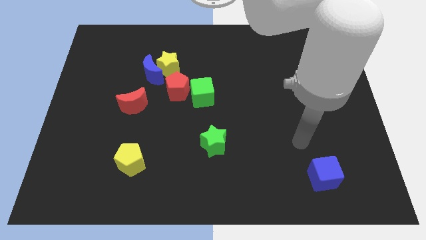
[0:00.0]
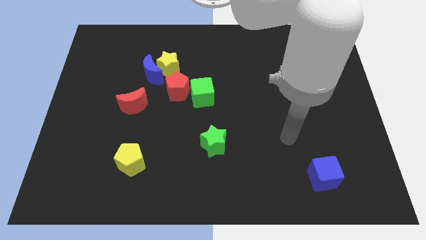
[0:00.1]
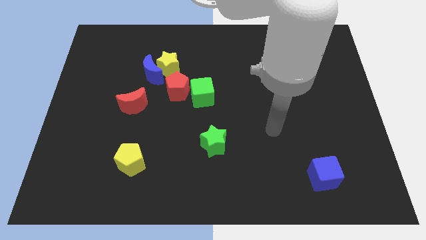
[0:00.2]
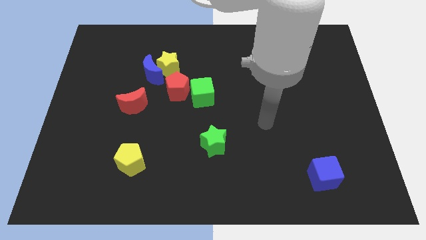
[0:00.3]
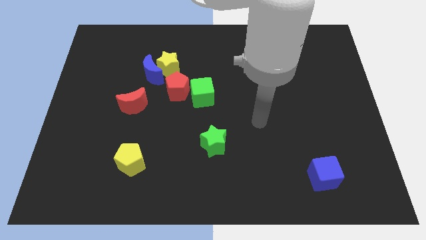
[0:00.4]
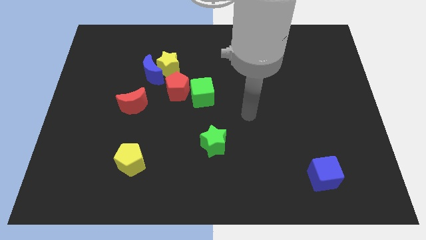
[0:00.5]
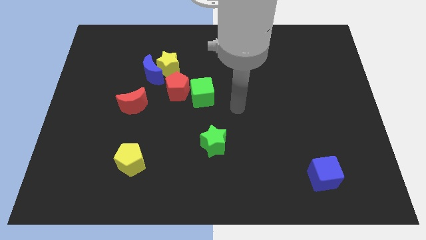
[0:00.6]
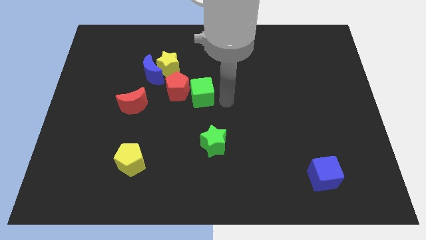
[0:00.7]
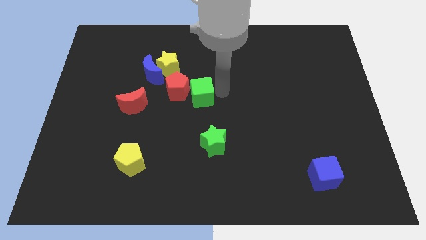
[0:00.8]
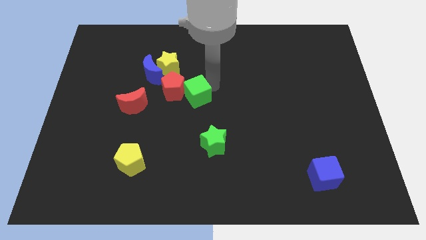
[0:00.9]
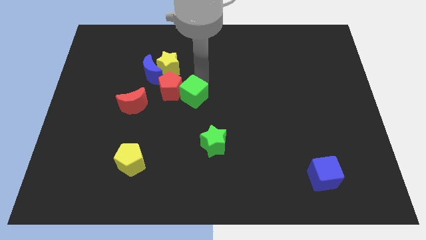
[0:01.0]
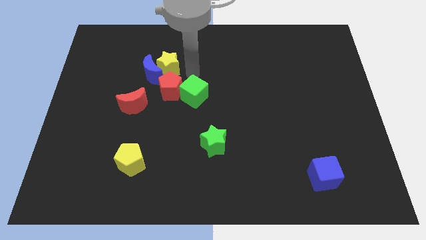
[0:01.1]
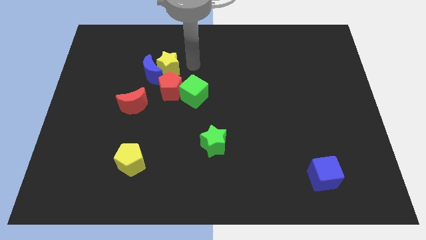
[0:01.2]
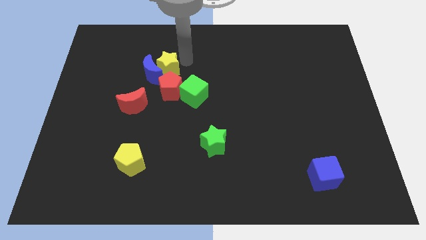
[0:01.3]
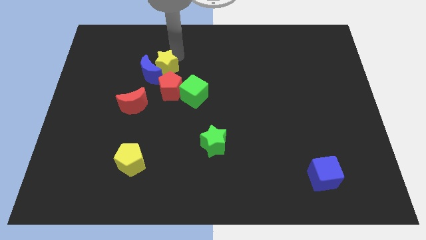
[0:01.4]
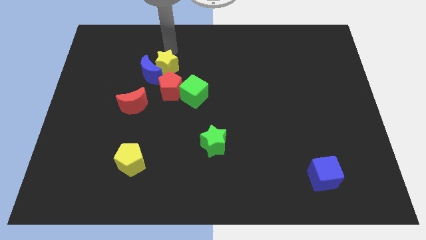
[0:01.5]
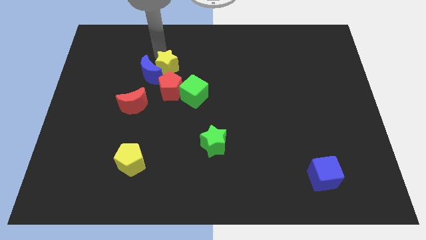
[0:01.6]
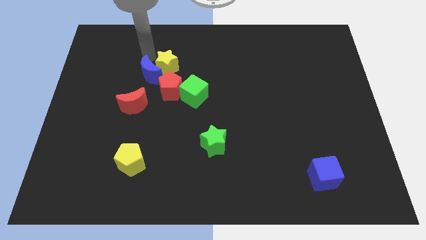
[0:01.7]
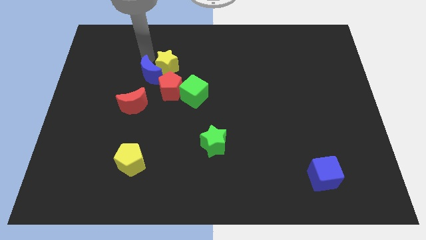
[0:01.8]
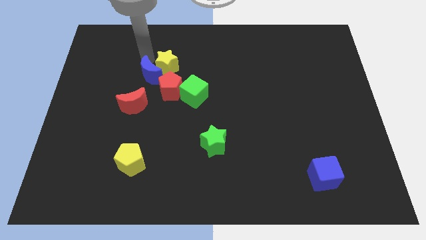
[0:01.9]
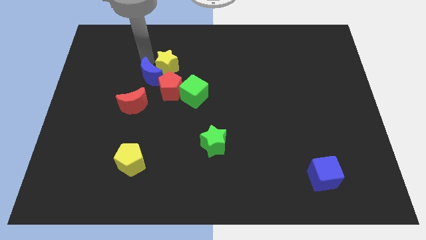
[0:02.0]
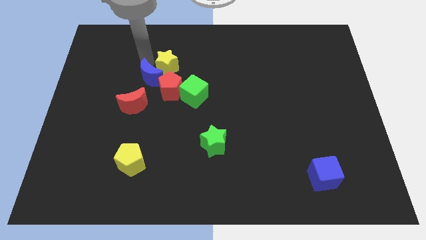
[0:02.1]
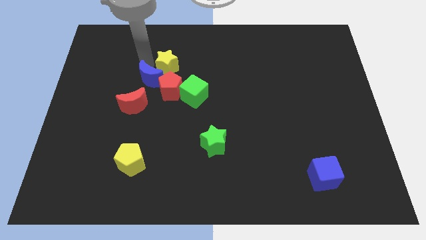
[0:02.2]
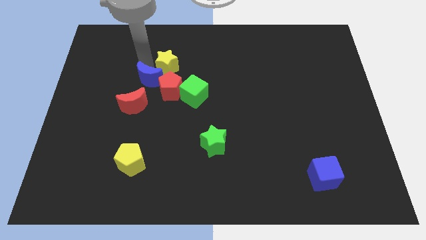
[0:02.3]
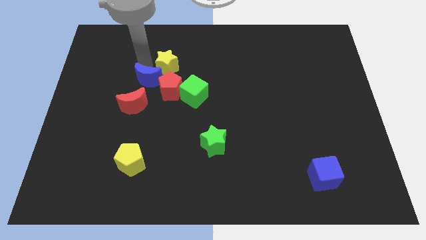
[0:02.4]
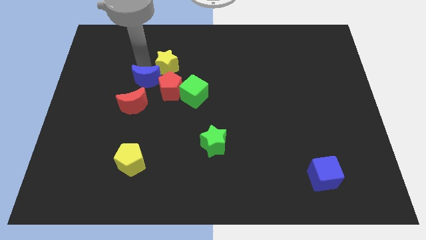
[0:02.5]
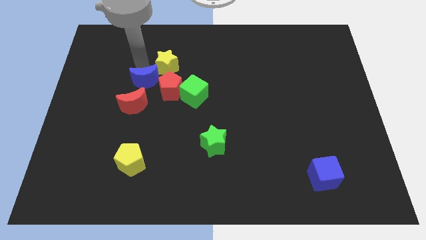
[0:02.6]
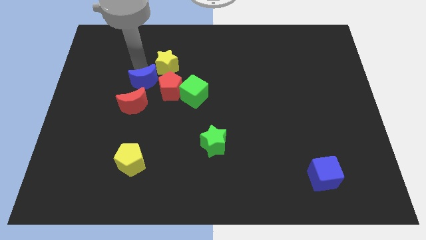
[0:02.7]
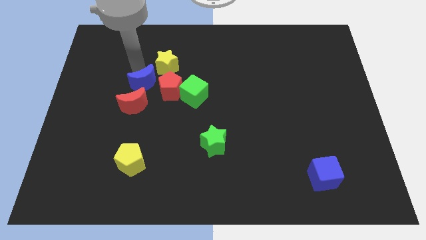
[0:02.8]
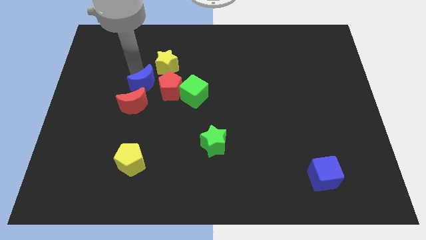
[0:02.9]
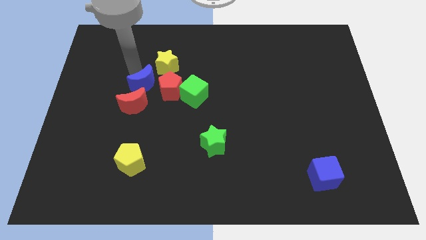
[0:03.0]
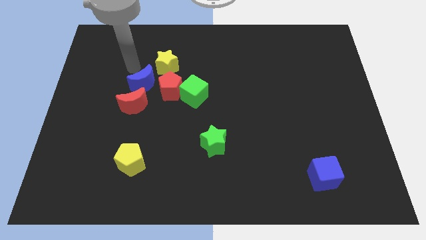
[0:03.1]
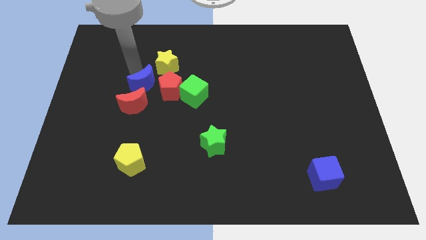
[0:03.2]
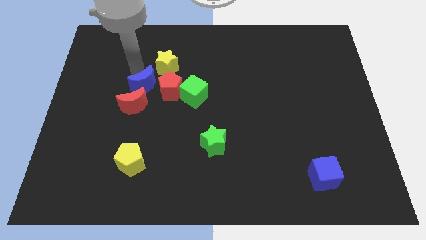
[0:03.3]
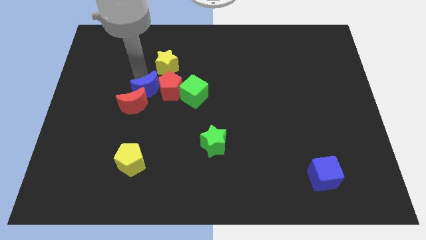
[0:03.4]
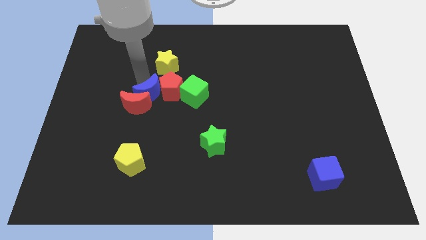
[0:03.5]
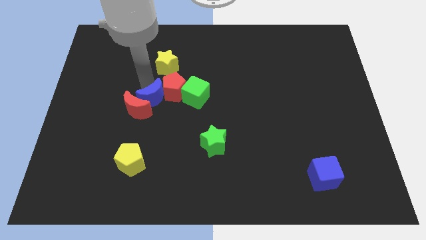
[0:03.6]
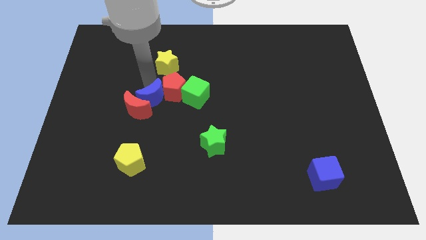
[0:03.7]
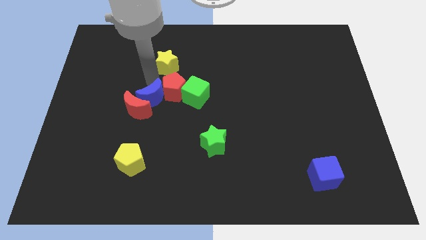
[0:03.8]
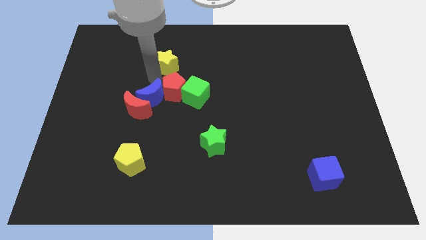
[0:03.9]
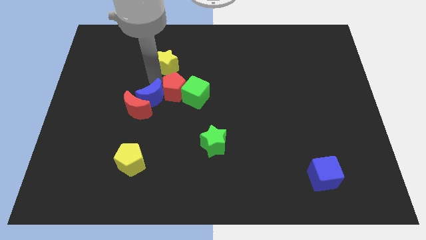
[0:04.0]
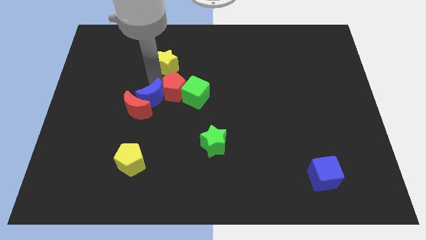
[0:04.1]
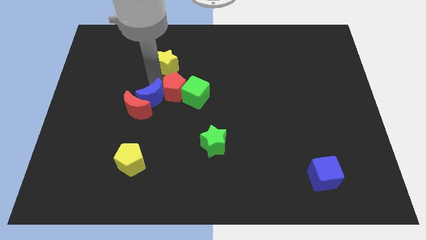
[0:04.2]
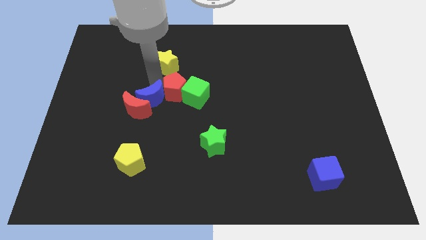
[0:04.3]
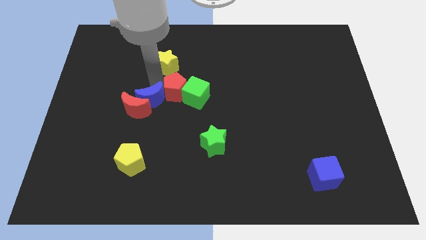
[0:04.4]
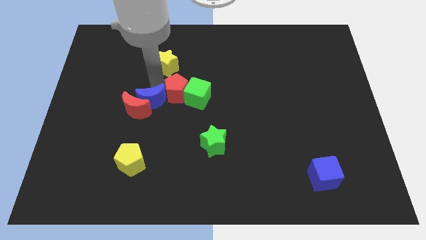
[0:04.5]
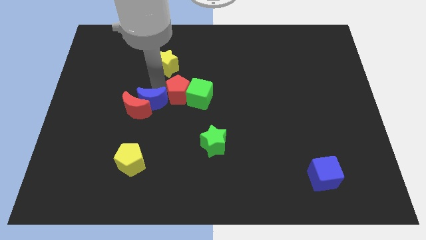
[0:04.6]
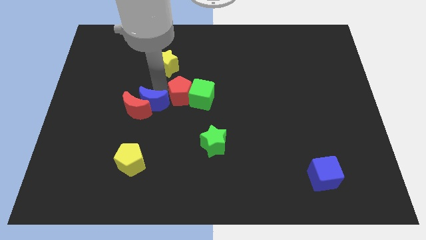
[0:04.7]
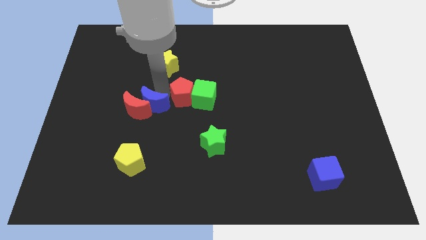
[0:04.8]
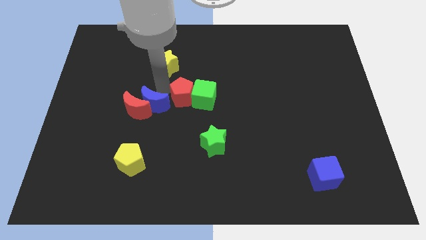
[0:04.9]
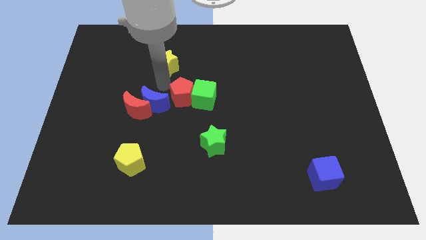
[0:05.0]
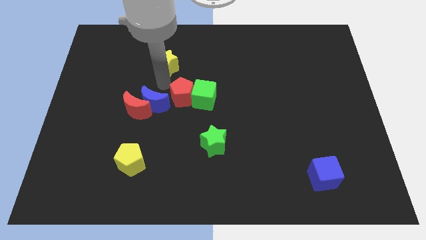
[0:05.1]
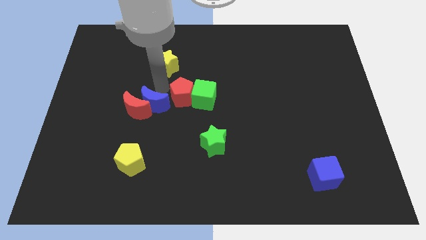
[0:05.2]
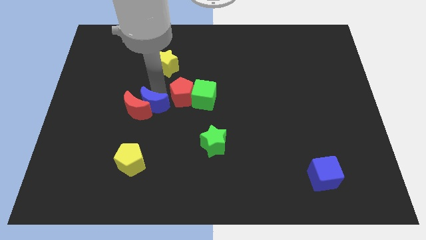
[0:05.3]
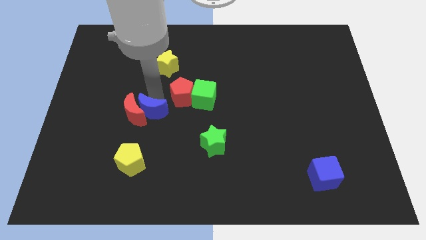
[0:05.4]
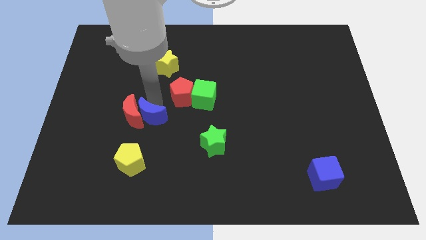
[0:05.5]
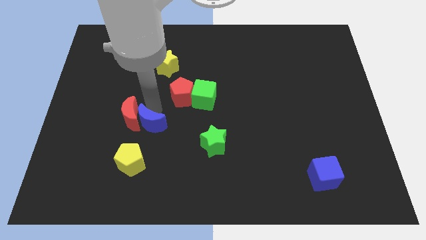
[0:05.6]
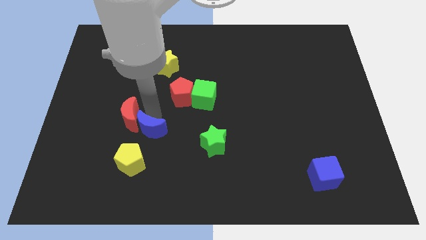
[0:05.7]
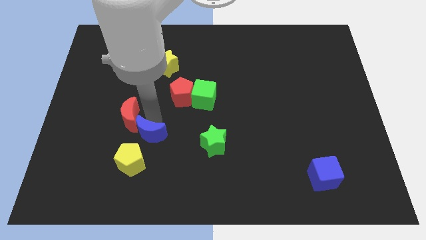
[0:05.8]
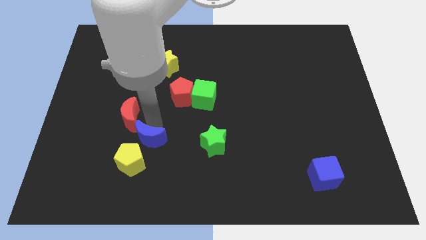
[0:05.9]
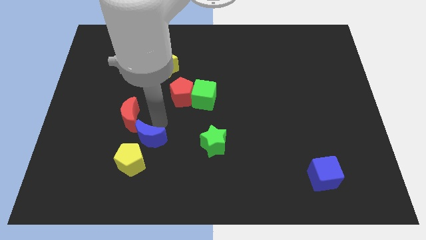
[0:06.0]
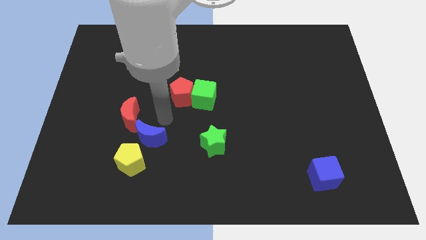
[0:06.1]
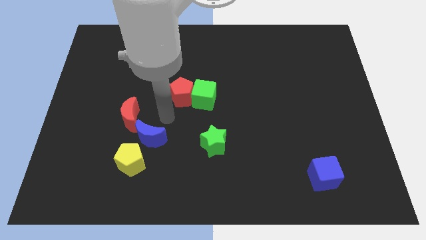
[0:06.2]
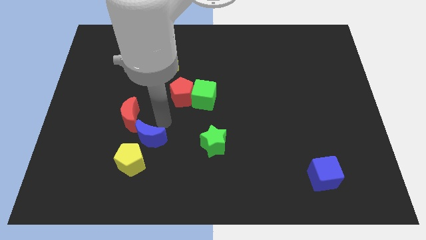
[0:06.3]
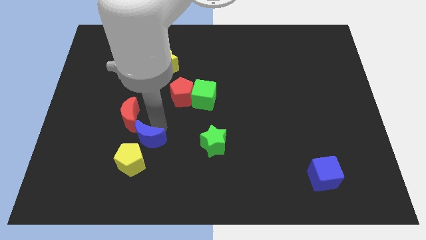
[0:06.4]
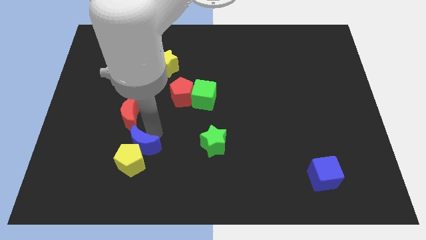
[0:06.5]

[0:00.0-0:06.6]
move the blue moon close to the yellow pentagon

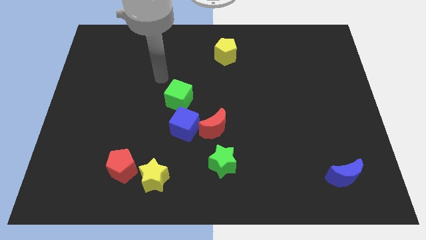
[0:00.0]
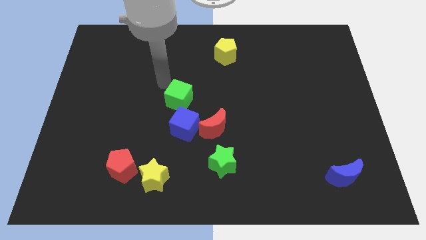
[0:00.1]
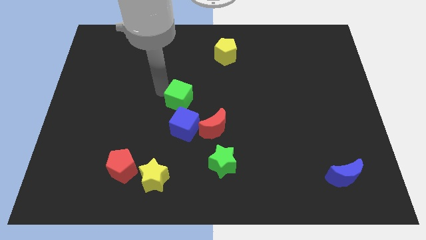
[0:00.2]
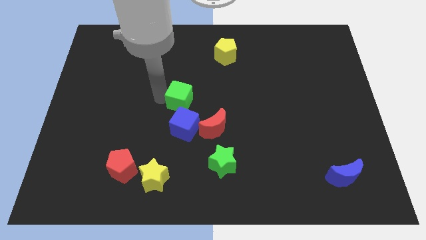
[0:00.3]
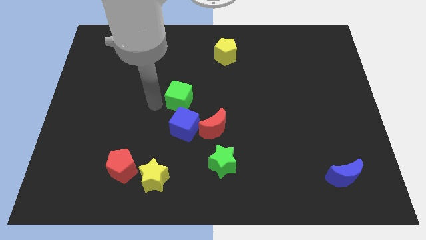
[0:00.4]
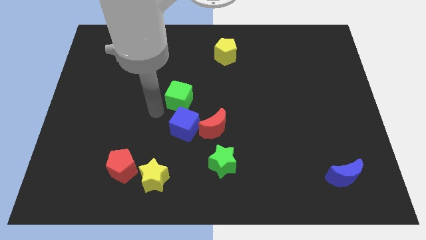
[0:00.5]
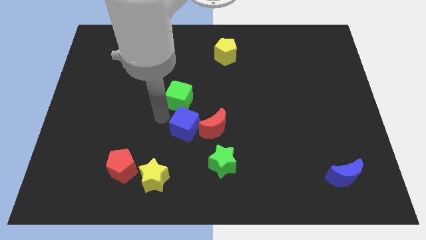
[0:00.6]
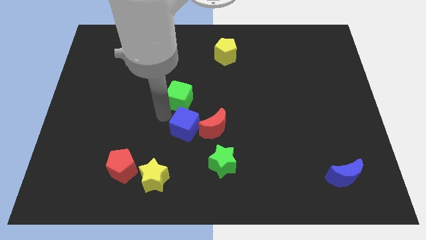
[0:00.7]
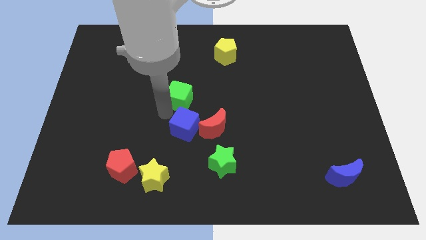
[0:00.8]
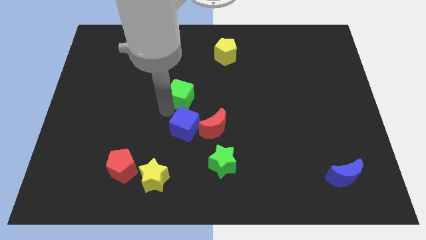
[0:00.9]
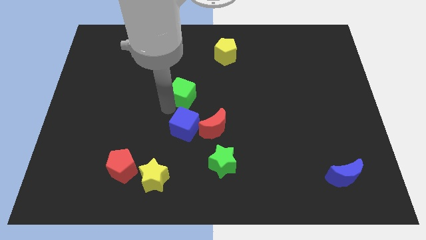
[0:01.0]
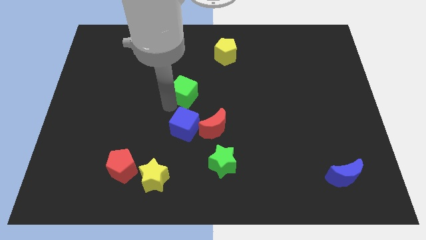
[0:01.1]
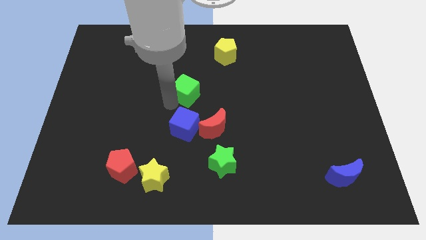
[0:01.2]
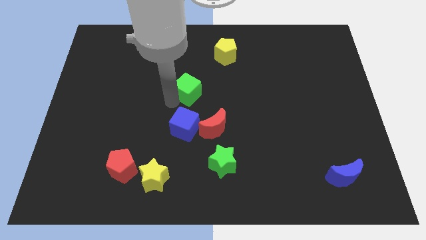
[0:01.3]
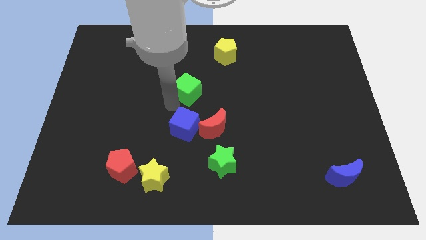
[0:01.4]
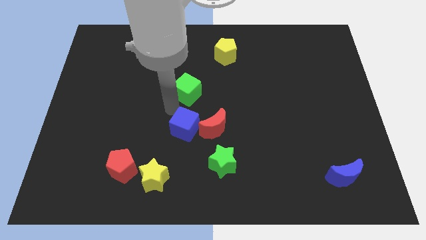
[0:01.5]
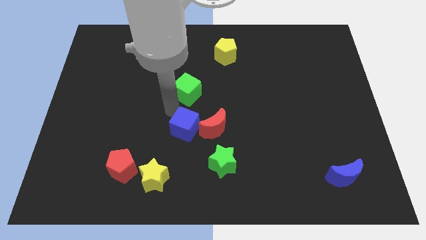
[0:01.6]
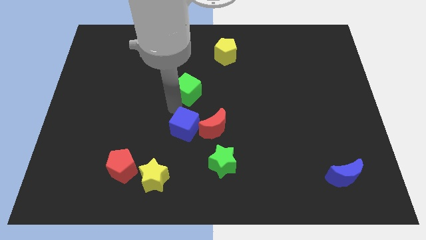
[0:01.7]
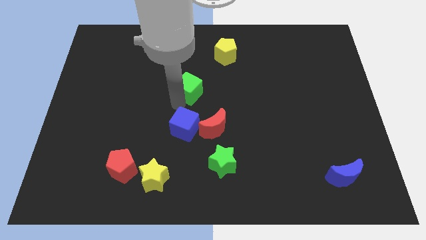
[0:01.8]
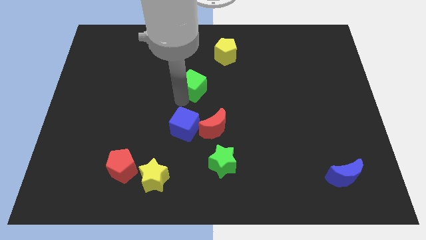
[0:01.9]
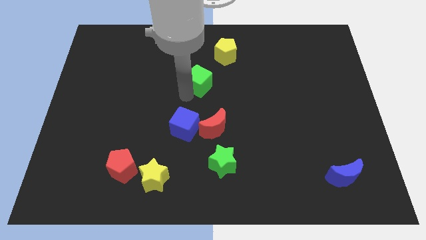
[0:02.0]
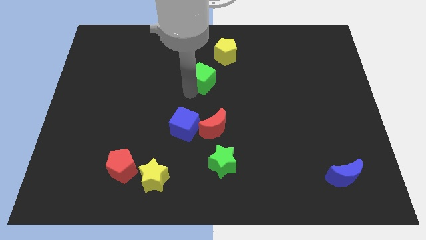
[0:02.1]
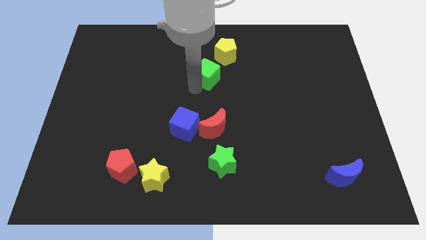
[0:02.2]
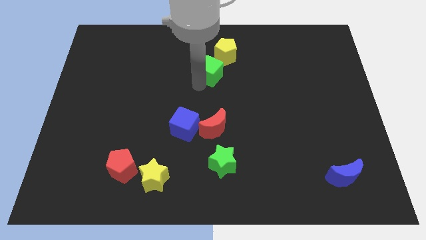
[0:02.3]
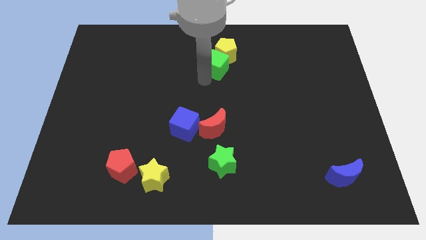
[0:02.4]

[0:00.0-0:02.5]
move the green cube close to the yellow pentagon
